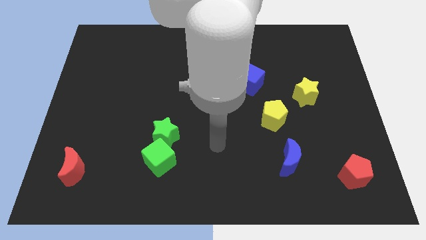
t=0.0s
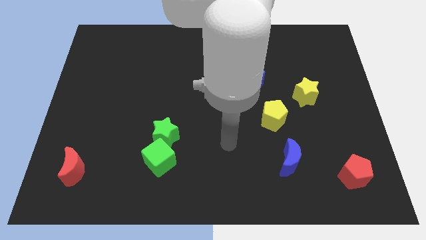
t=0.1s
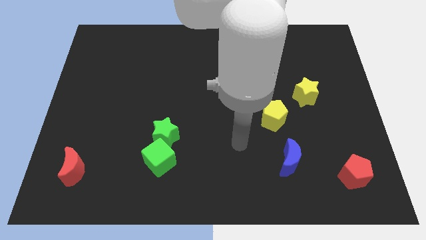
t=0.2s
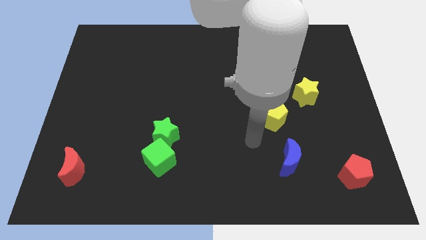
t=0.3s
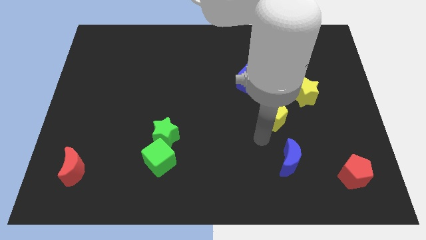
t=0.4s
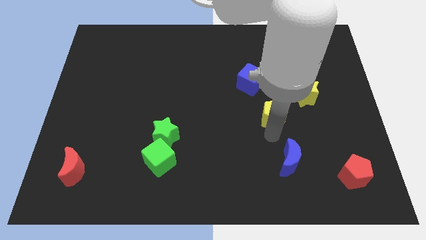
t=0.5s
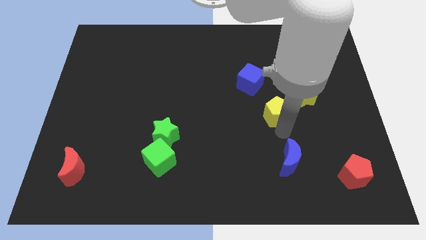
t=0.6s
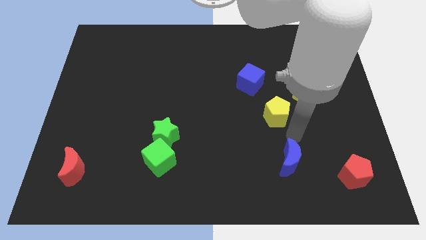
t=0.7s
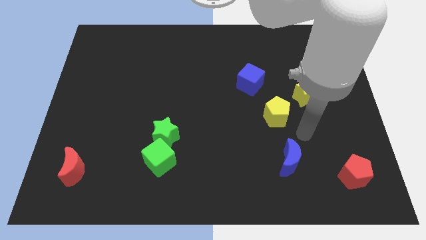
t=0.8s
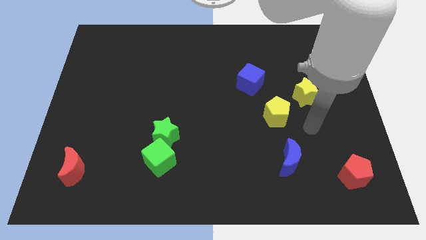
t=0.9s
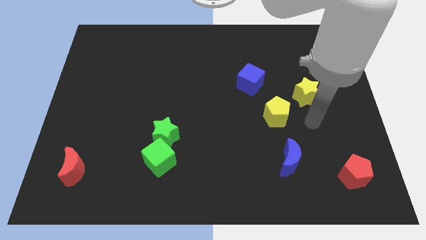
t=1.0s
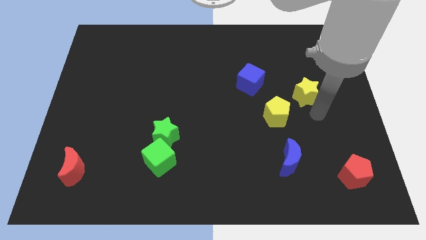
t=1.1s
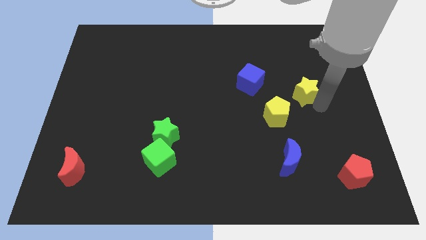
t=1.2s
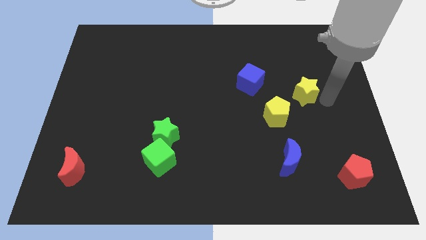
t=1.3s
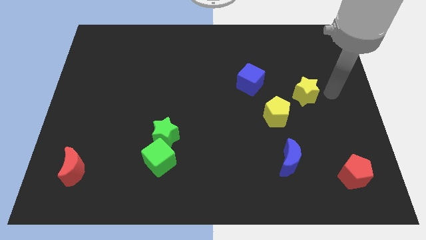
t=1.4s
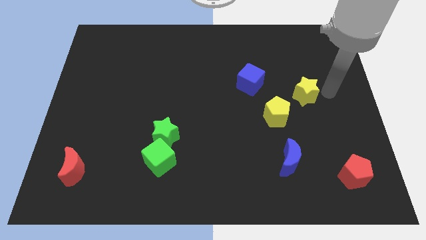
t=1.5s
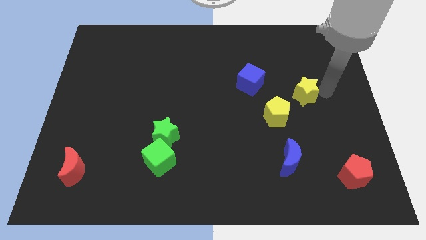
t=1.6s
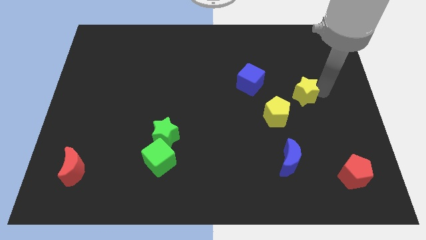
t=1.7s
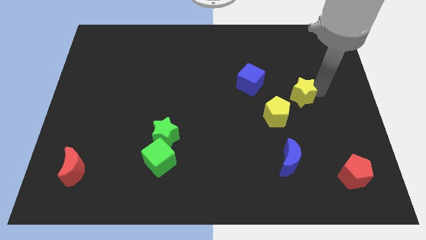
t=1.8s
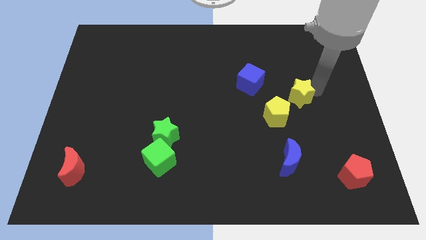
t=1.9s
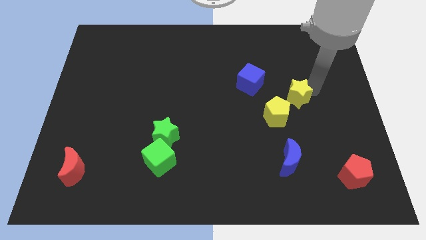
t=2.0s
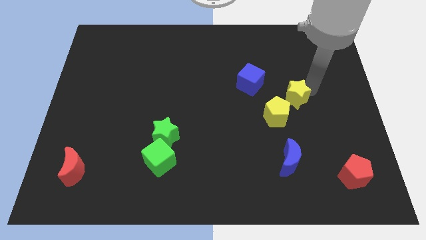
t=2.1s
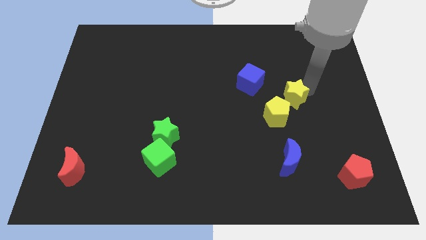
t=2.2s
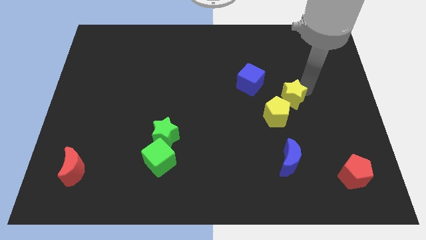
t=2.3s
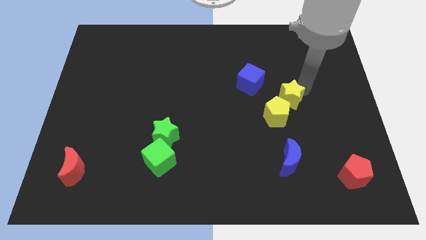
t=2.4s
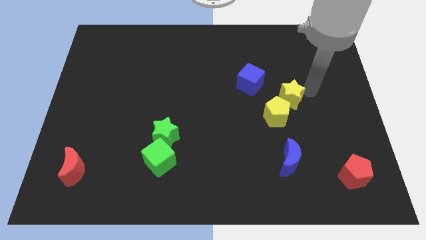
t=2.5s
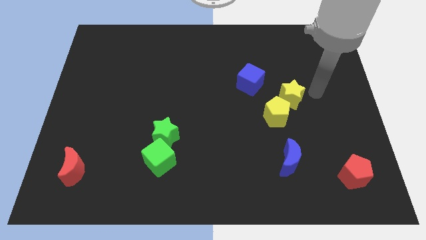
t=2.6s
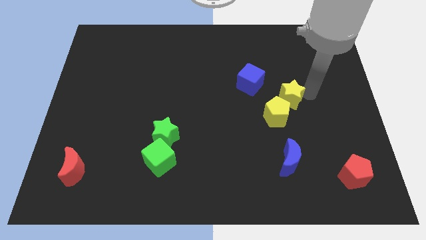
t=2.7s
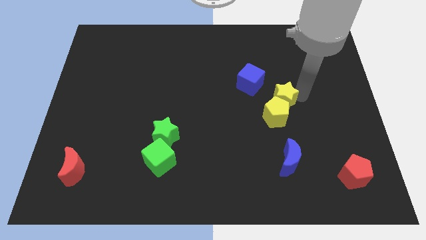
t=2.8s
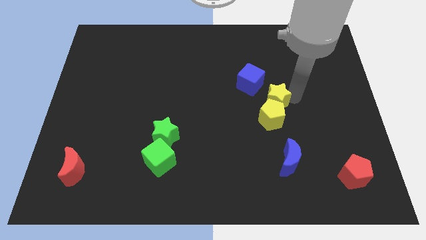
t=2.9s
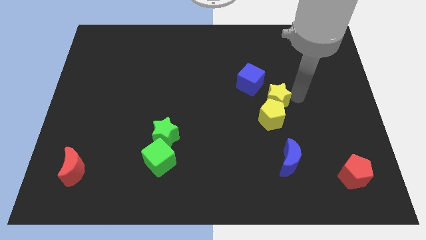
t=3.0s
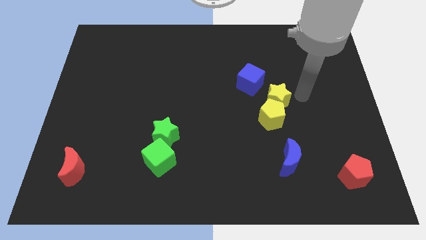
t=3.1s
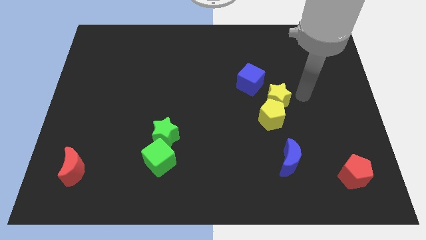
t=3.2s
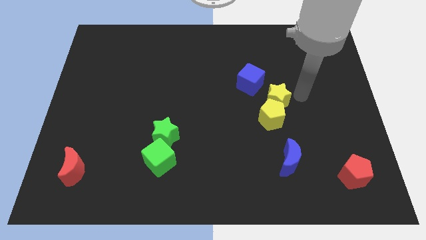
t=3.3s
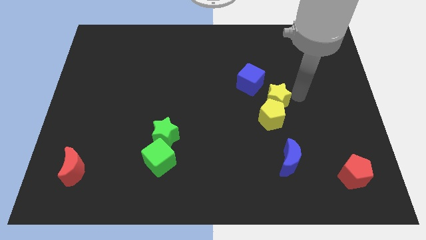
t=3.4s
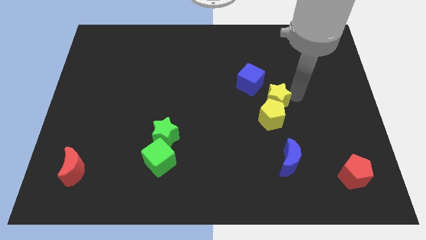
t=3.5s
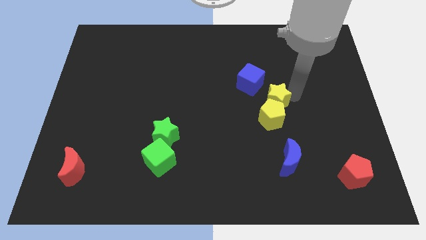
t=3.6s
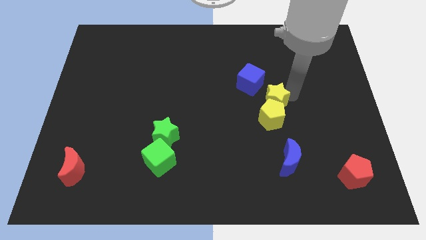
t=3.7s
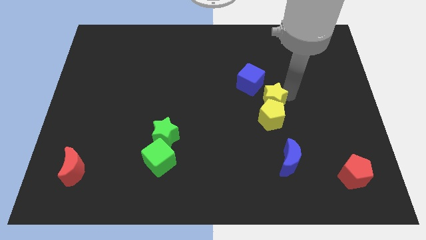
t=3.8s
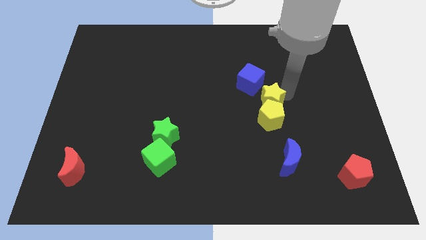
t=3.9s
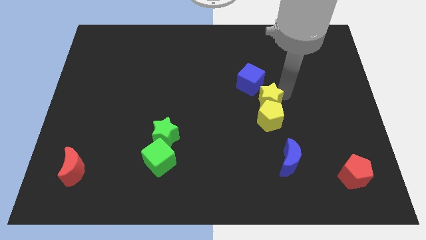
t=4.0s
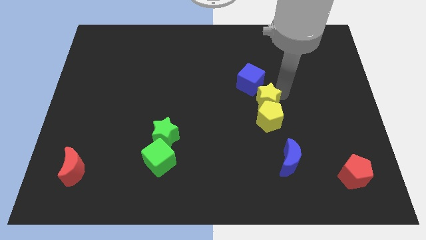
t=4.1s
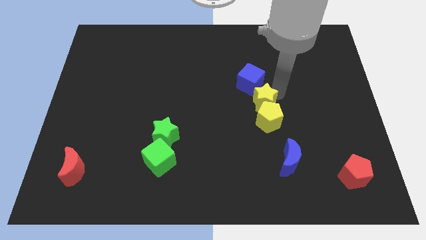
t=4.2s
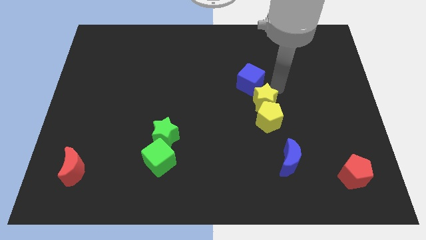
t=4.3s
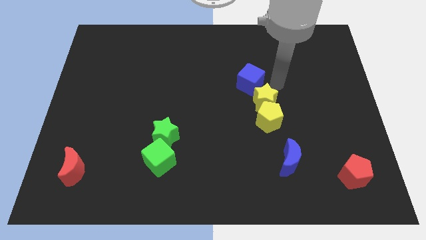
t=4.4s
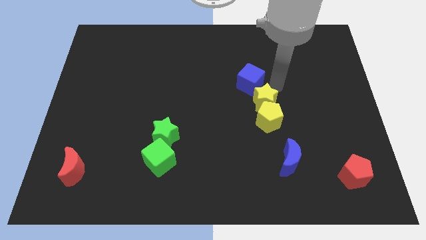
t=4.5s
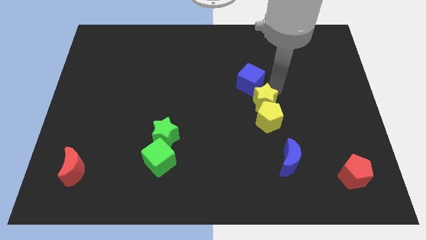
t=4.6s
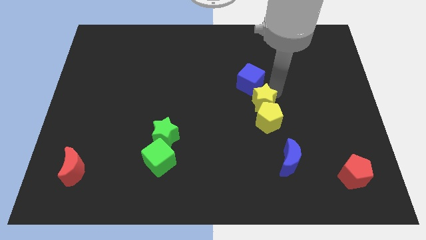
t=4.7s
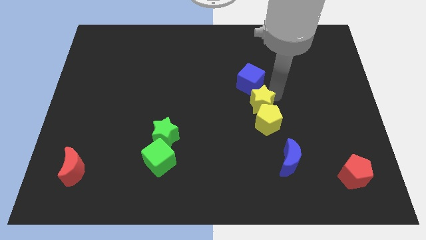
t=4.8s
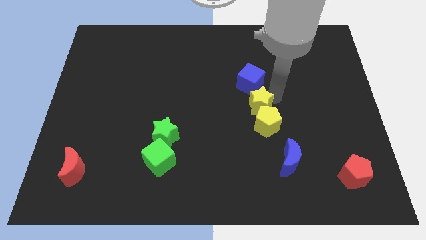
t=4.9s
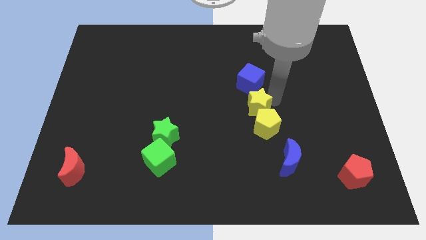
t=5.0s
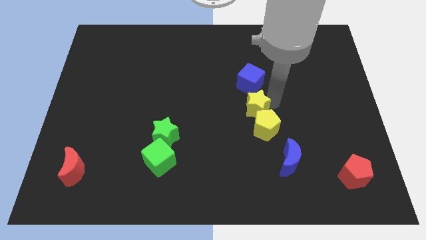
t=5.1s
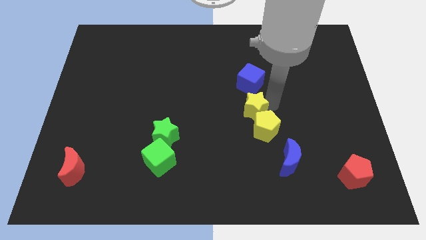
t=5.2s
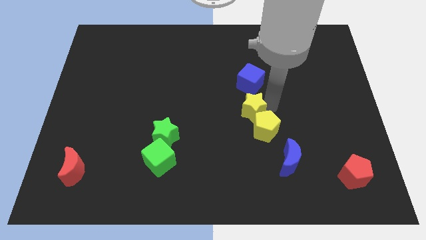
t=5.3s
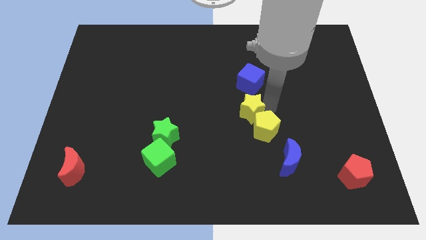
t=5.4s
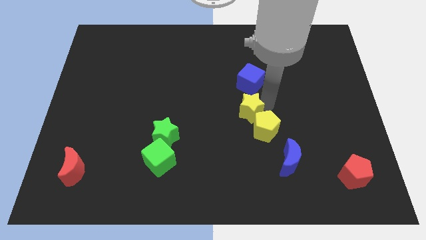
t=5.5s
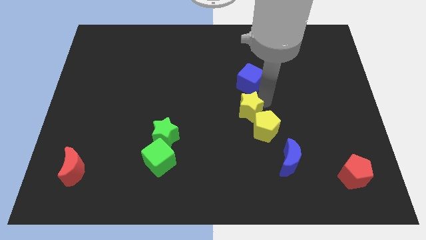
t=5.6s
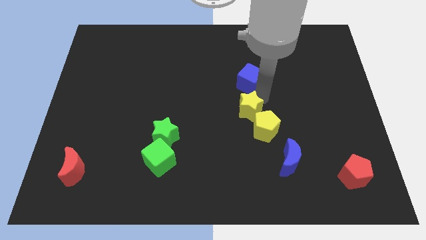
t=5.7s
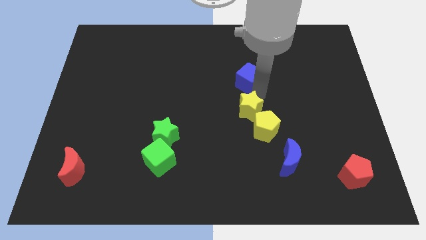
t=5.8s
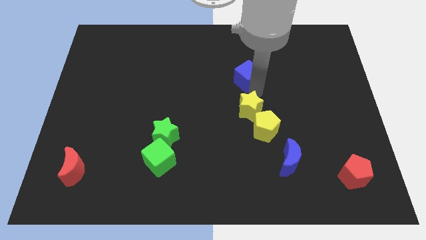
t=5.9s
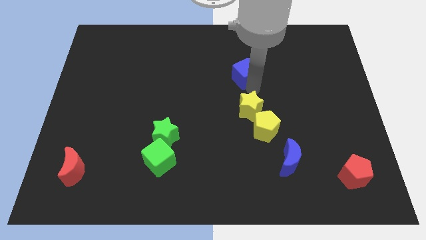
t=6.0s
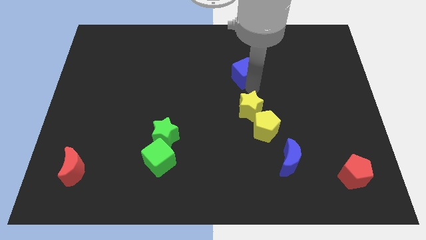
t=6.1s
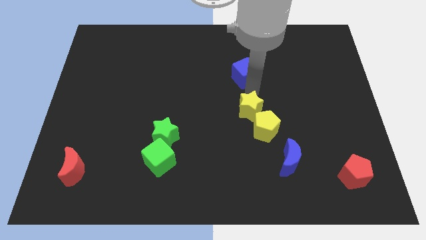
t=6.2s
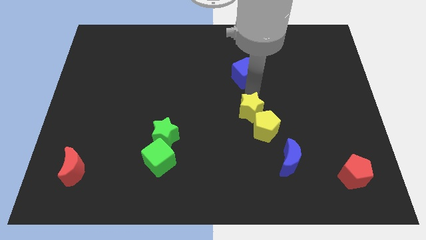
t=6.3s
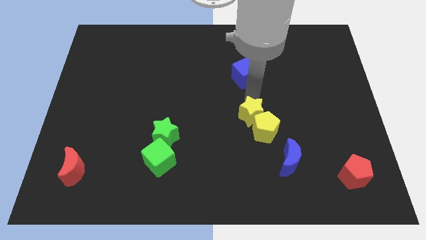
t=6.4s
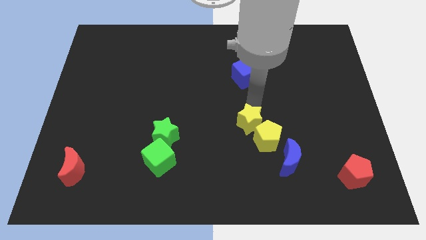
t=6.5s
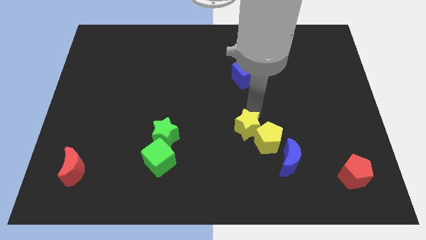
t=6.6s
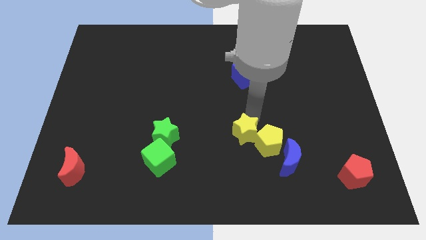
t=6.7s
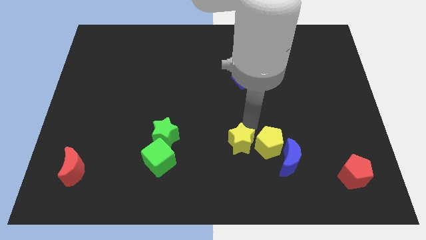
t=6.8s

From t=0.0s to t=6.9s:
push the yellow star downwards and to the left

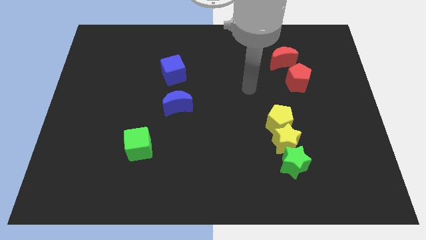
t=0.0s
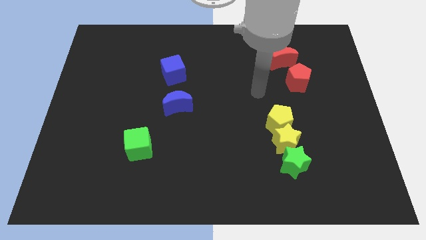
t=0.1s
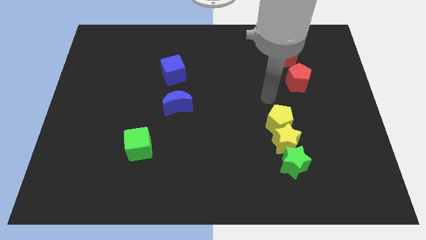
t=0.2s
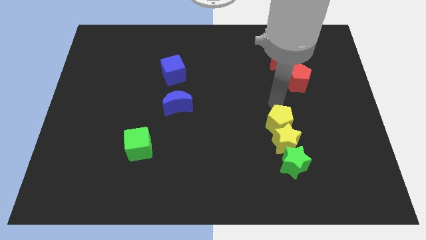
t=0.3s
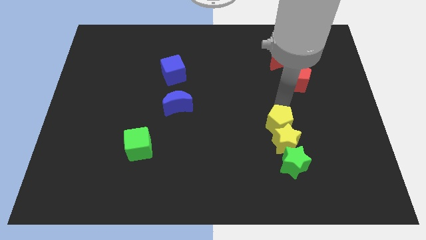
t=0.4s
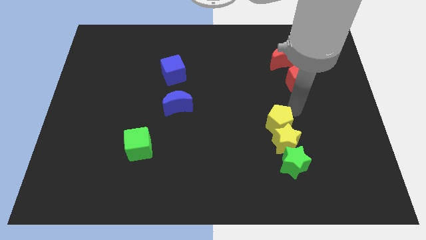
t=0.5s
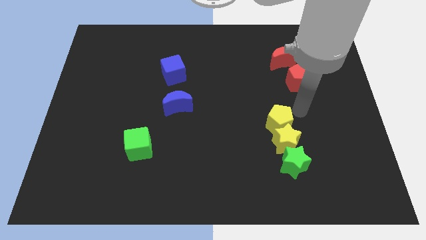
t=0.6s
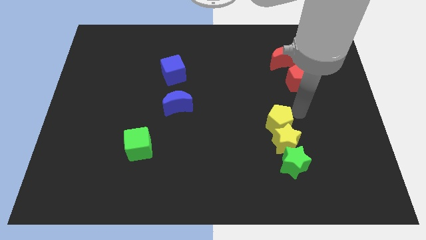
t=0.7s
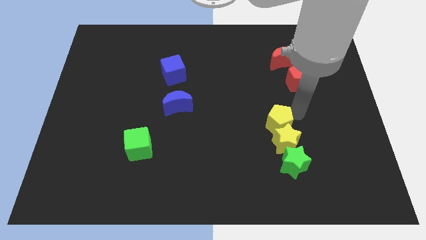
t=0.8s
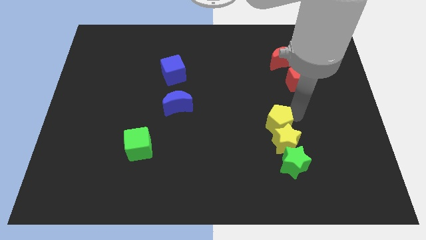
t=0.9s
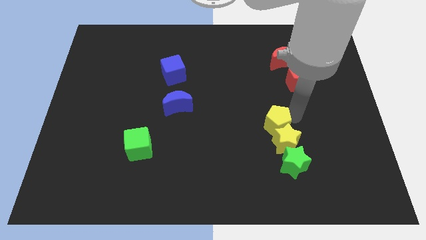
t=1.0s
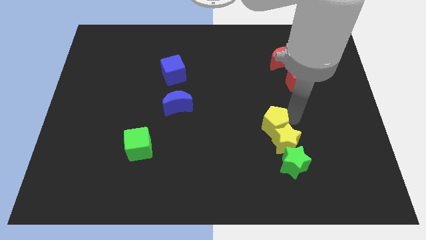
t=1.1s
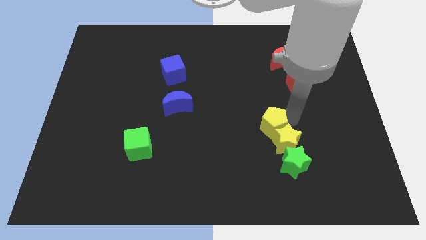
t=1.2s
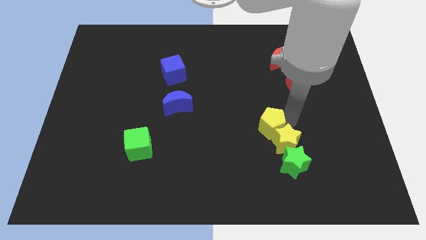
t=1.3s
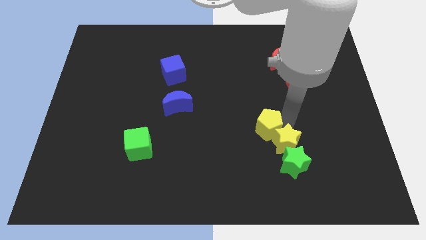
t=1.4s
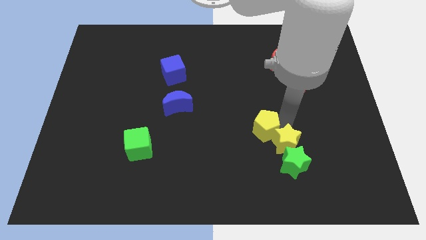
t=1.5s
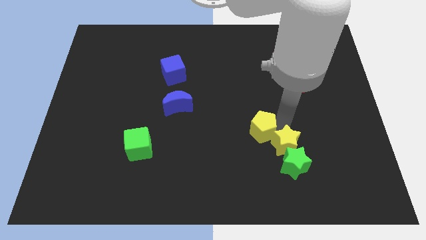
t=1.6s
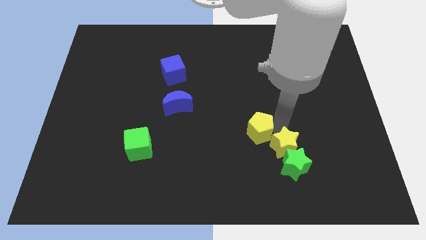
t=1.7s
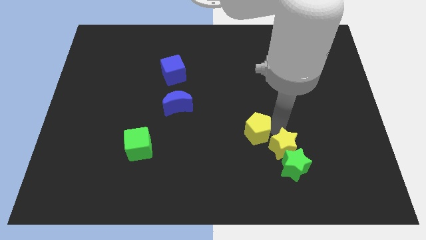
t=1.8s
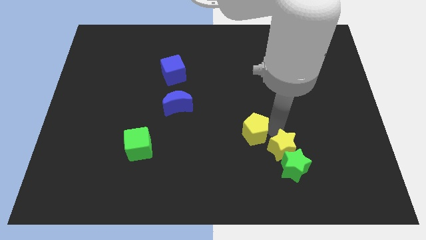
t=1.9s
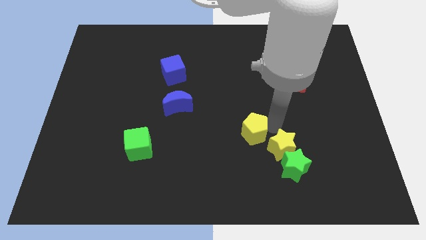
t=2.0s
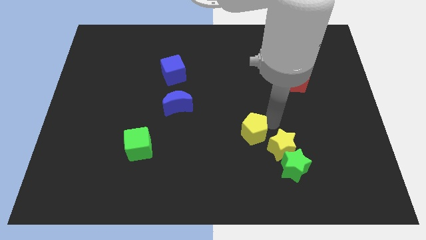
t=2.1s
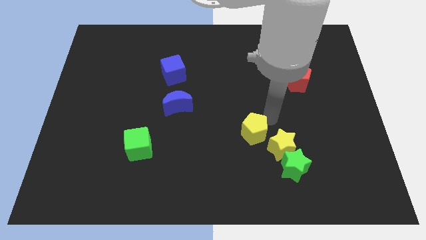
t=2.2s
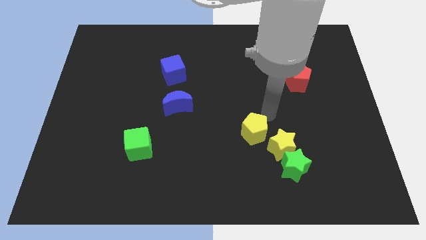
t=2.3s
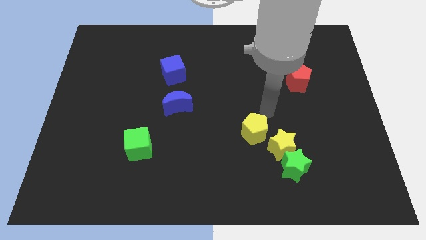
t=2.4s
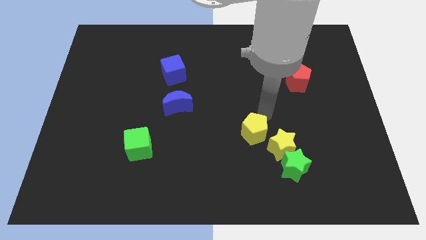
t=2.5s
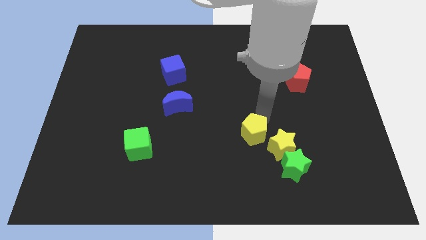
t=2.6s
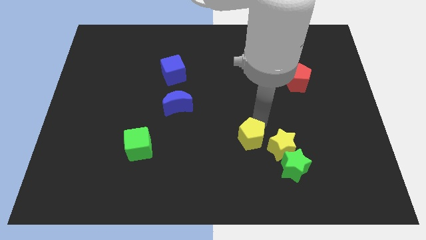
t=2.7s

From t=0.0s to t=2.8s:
slide the yellow pentagon a little downwards and then left
